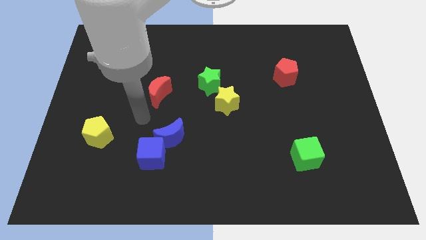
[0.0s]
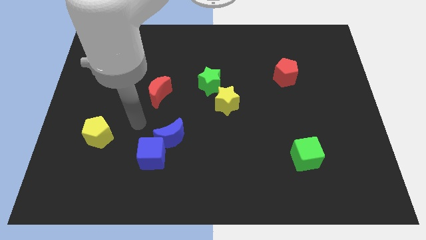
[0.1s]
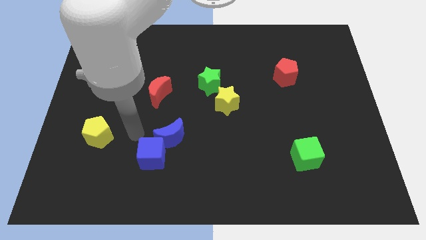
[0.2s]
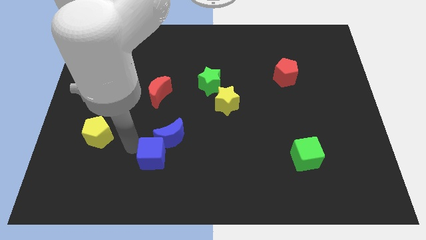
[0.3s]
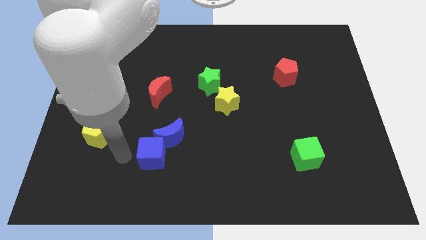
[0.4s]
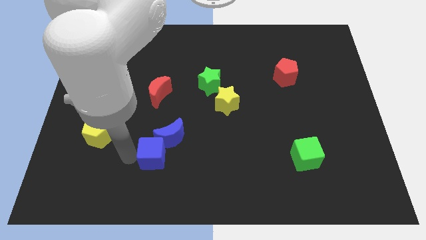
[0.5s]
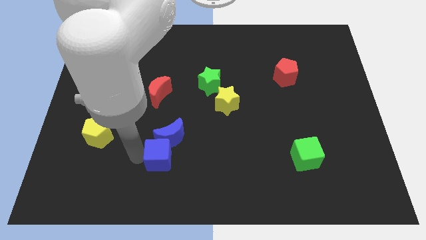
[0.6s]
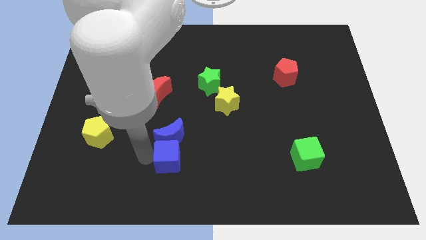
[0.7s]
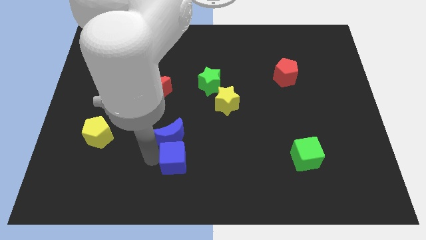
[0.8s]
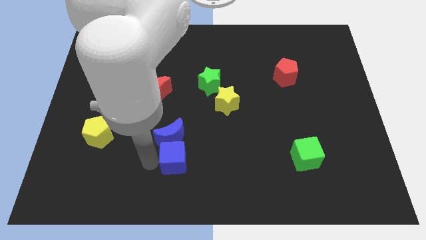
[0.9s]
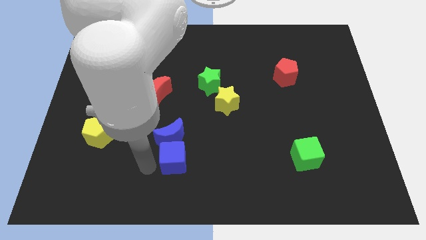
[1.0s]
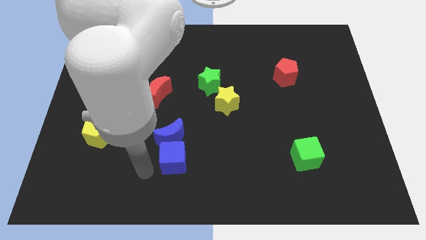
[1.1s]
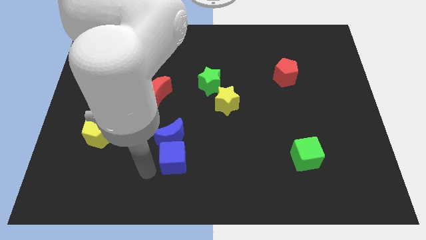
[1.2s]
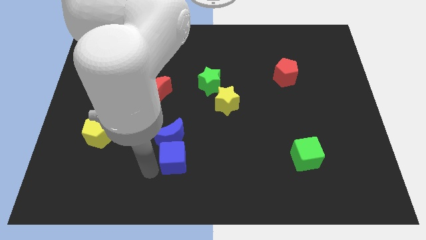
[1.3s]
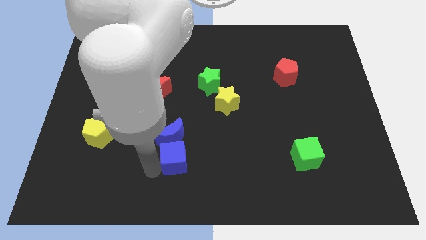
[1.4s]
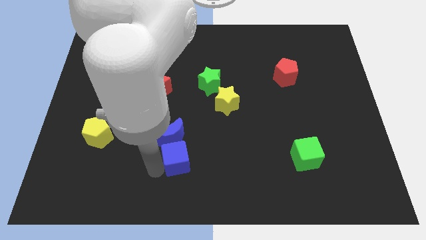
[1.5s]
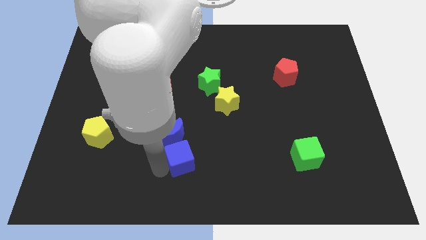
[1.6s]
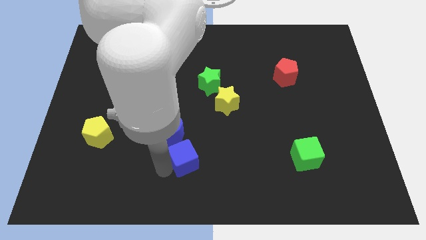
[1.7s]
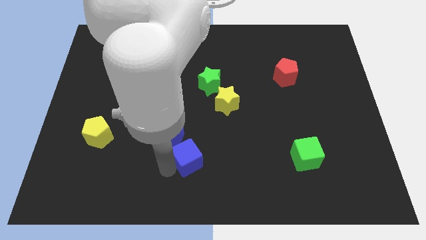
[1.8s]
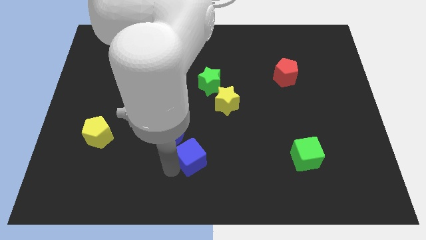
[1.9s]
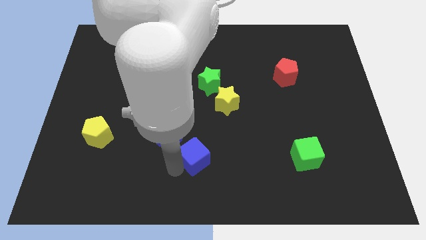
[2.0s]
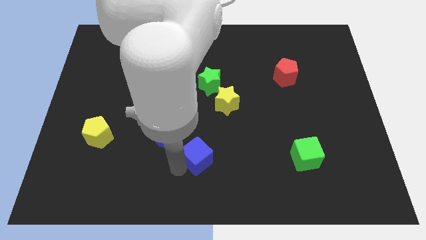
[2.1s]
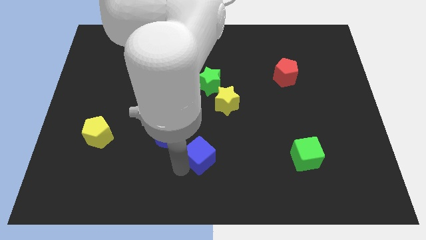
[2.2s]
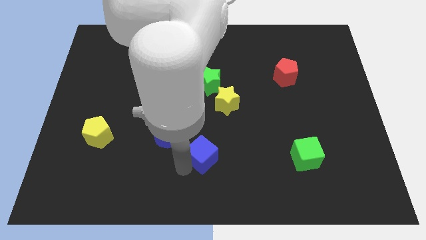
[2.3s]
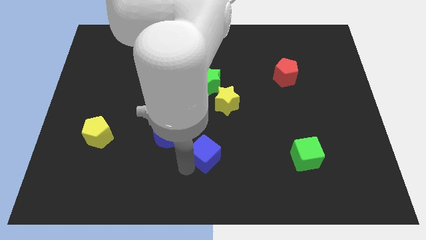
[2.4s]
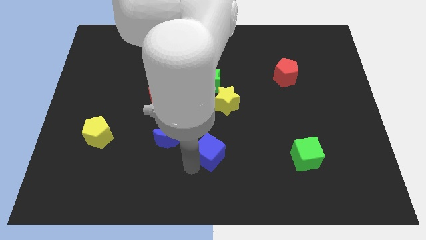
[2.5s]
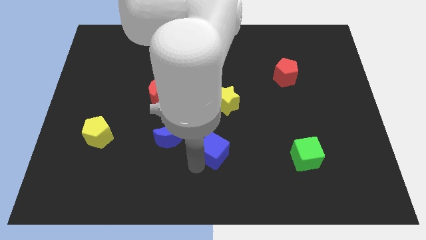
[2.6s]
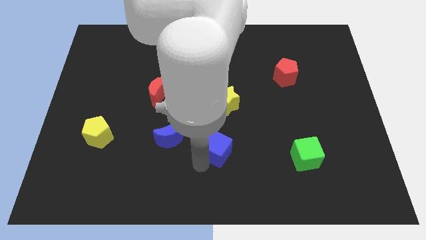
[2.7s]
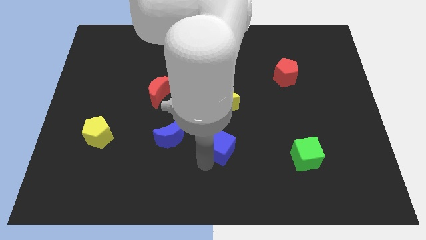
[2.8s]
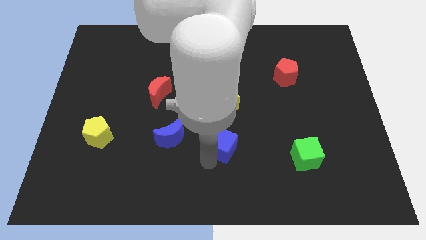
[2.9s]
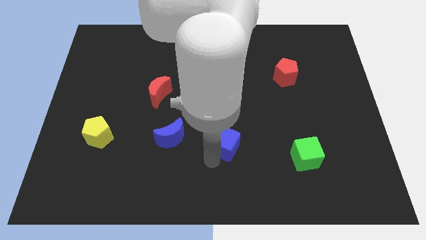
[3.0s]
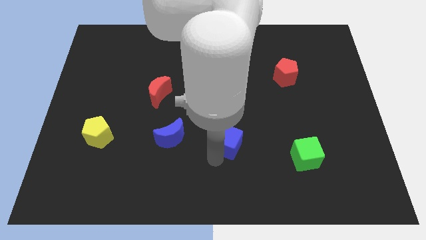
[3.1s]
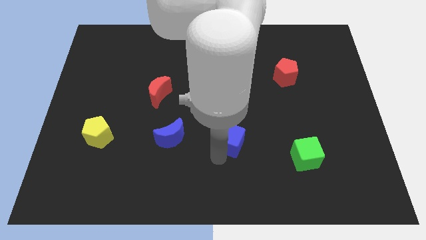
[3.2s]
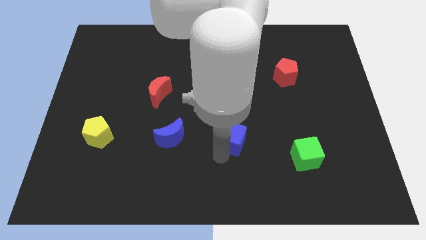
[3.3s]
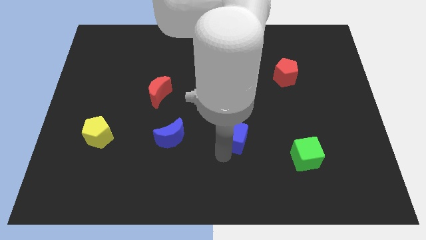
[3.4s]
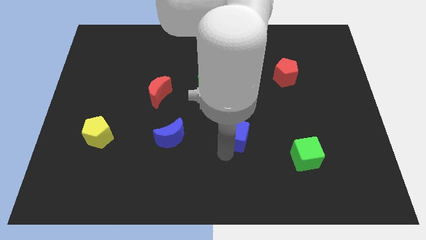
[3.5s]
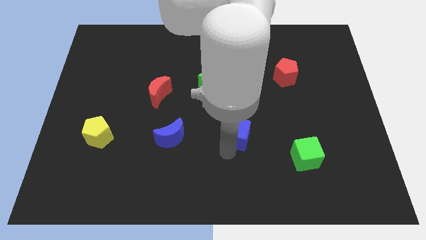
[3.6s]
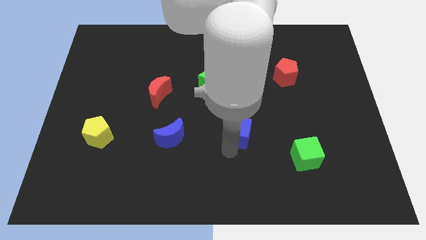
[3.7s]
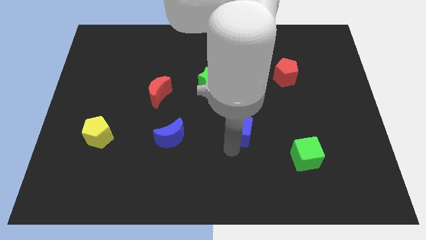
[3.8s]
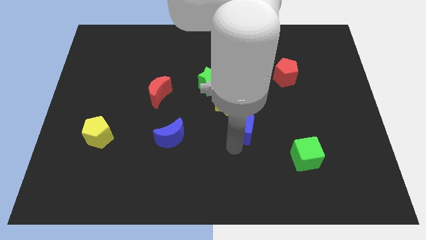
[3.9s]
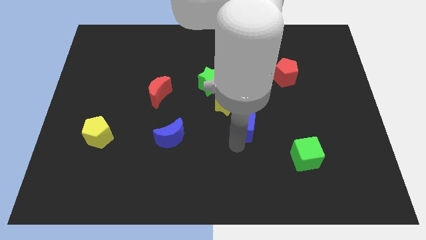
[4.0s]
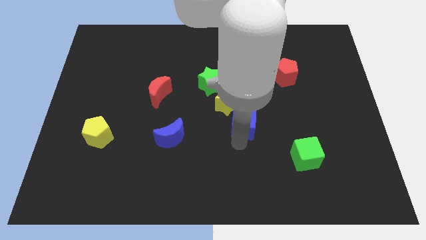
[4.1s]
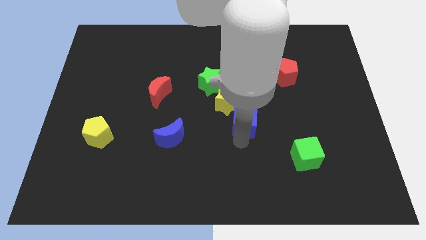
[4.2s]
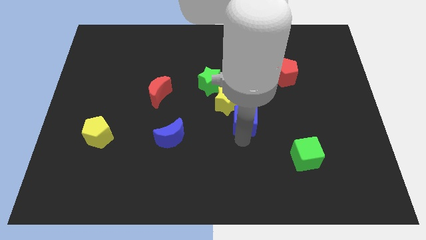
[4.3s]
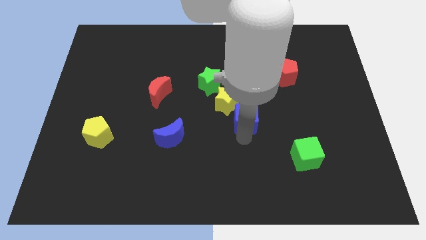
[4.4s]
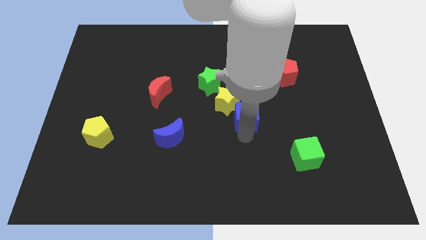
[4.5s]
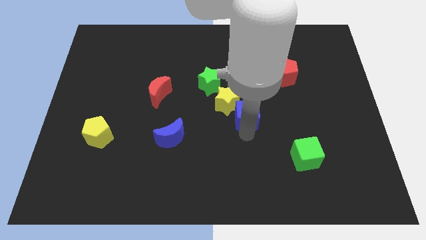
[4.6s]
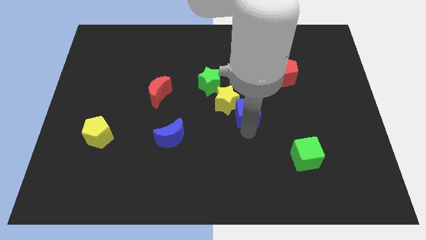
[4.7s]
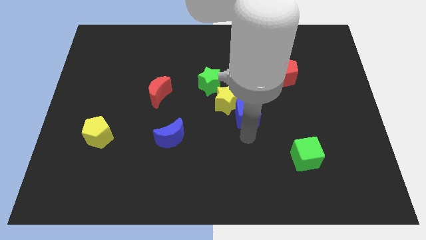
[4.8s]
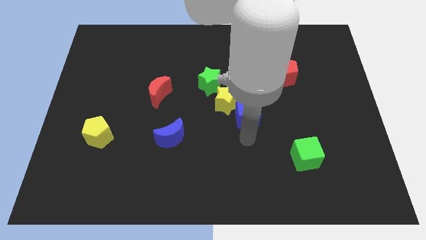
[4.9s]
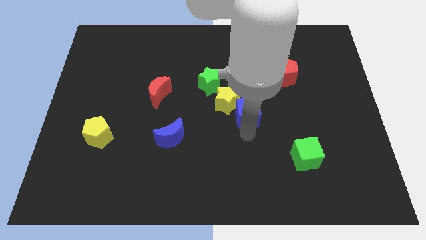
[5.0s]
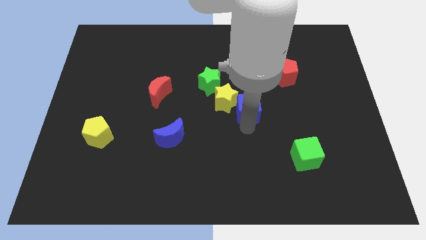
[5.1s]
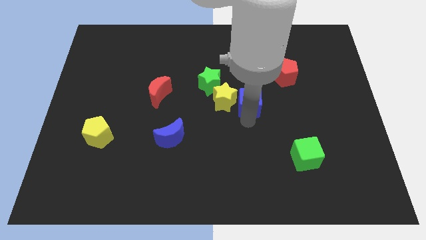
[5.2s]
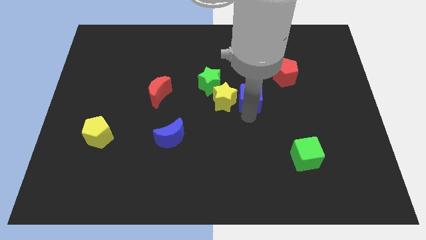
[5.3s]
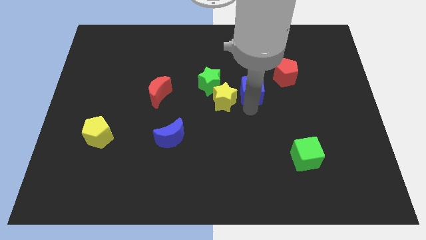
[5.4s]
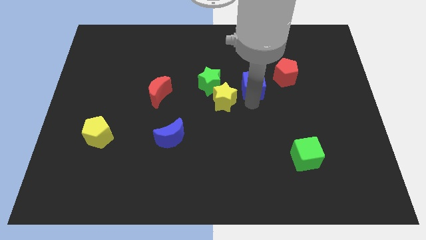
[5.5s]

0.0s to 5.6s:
slide the blue cube just left of the red pentagon
